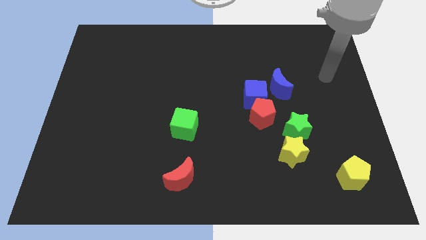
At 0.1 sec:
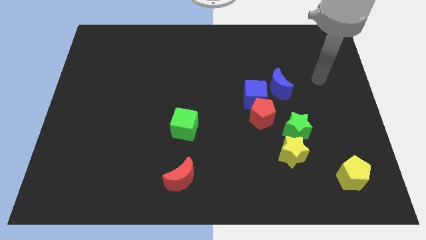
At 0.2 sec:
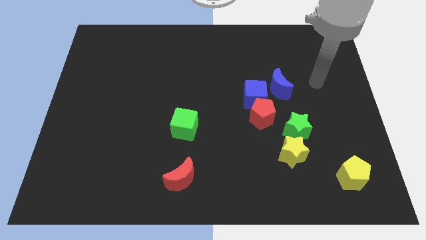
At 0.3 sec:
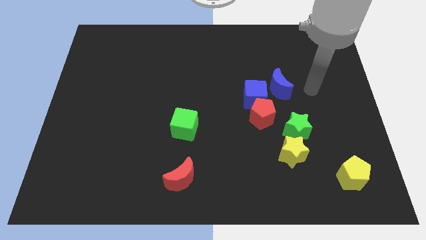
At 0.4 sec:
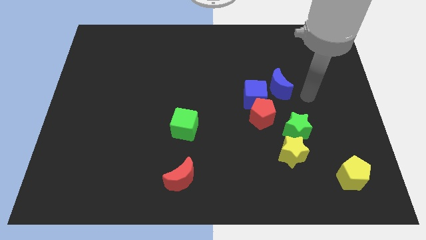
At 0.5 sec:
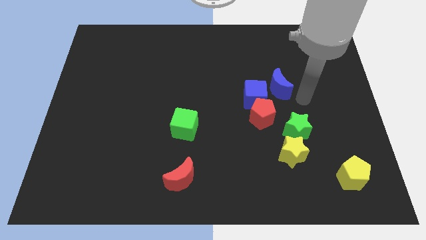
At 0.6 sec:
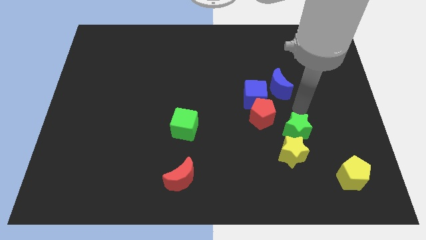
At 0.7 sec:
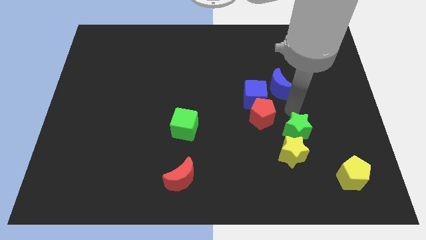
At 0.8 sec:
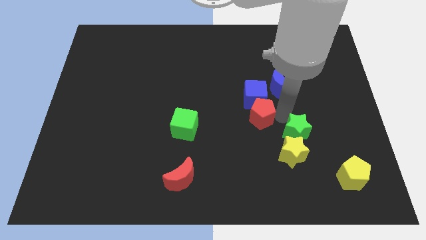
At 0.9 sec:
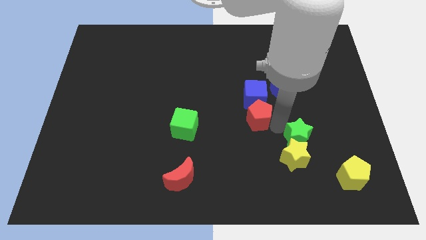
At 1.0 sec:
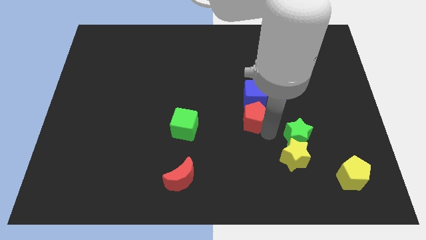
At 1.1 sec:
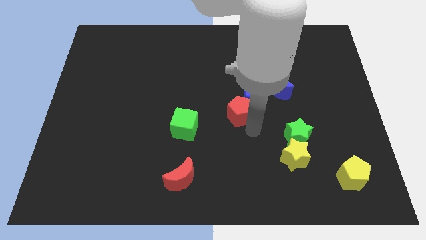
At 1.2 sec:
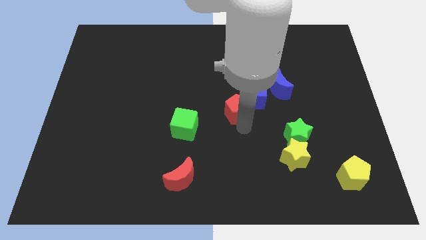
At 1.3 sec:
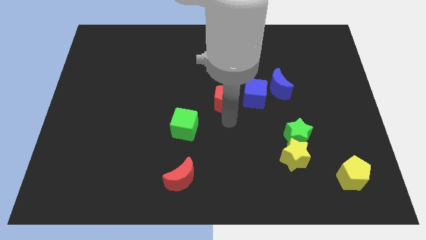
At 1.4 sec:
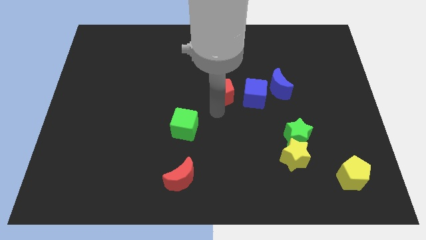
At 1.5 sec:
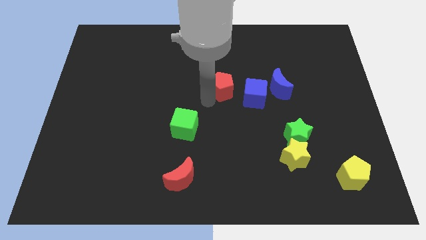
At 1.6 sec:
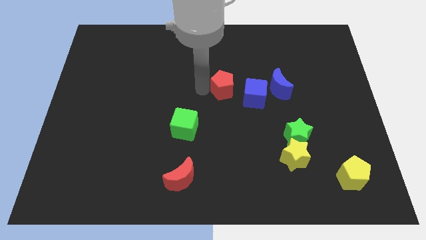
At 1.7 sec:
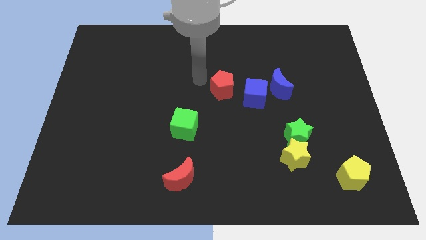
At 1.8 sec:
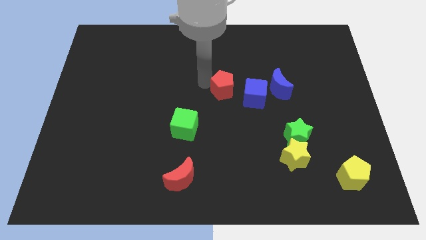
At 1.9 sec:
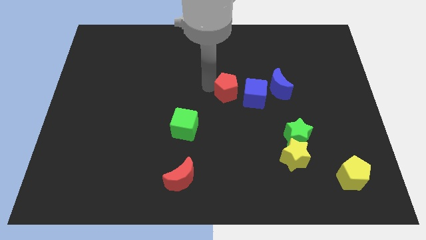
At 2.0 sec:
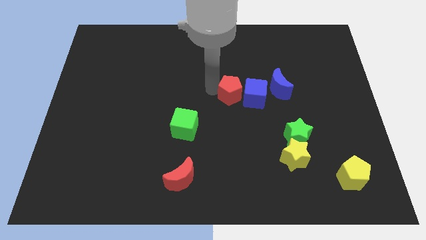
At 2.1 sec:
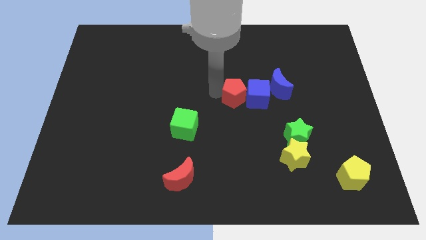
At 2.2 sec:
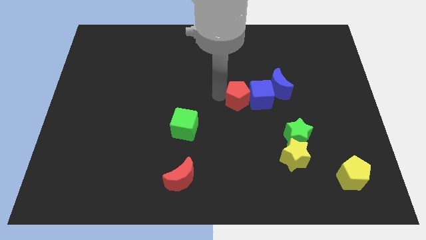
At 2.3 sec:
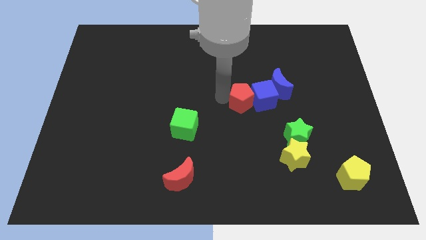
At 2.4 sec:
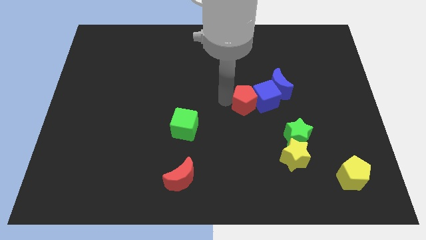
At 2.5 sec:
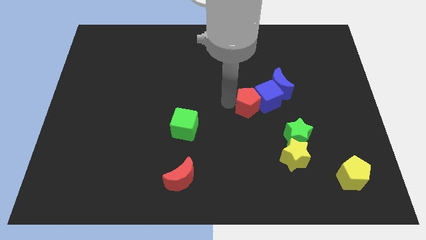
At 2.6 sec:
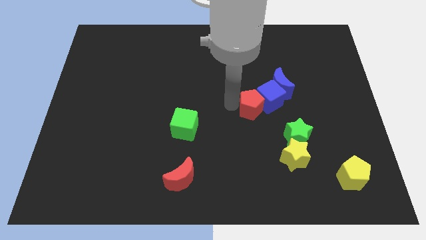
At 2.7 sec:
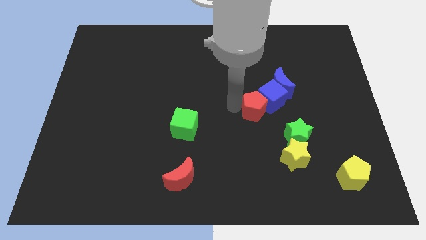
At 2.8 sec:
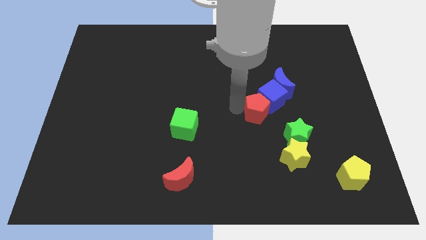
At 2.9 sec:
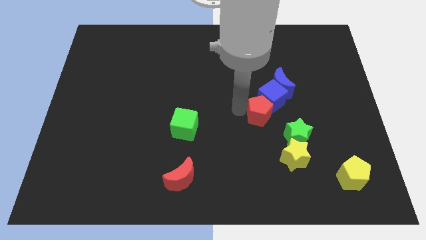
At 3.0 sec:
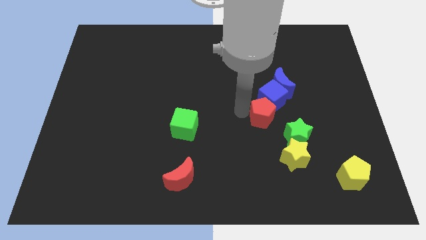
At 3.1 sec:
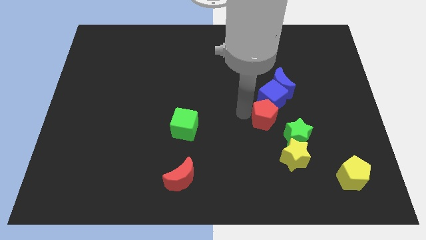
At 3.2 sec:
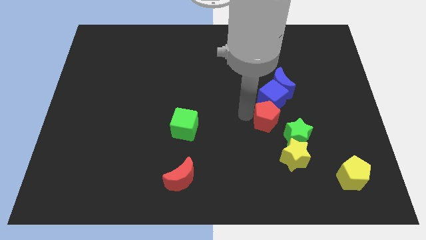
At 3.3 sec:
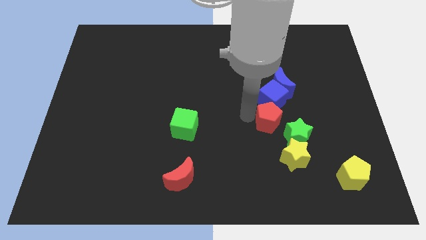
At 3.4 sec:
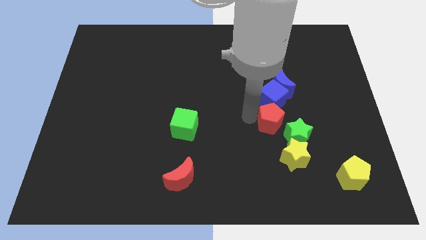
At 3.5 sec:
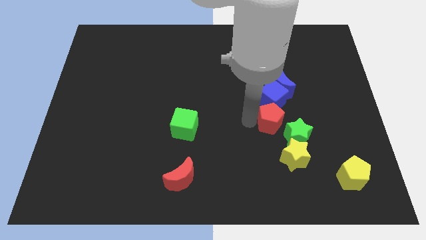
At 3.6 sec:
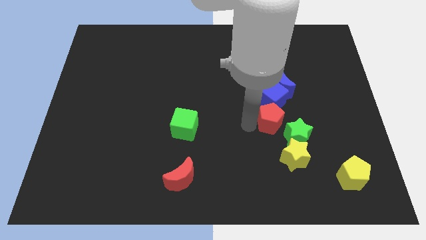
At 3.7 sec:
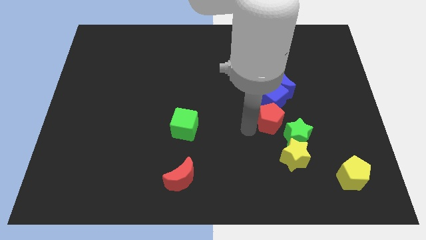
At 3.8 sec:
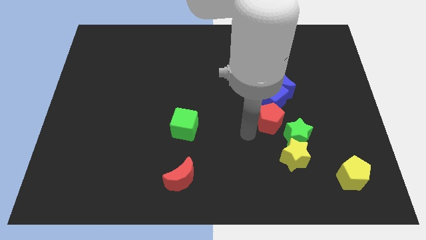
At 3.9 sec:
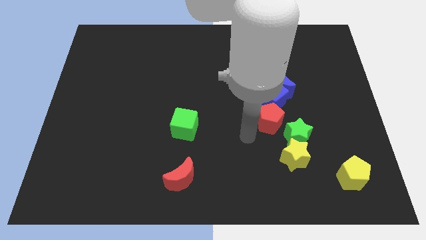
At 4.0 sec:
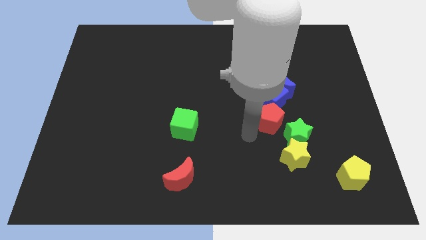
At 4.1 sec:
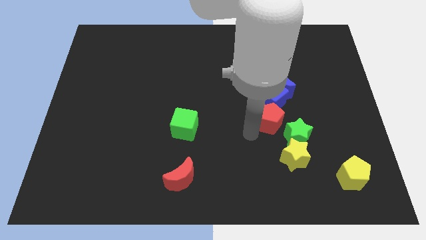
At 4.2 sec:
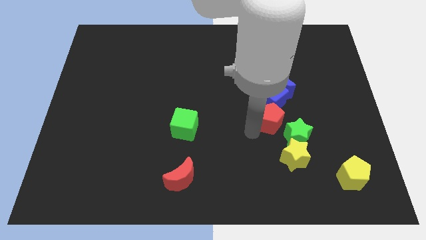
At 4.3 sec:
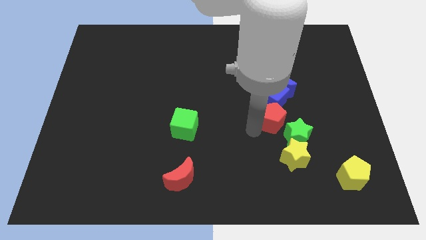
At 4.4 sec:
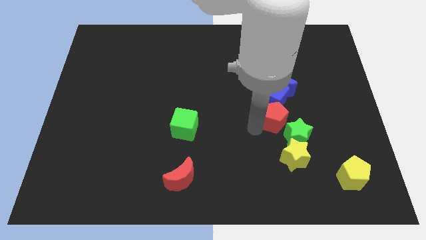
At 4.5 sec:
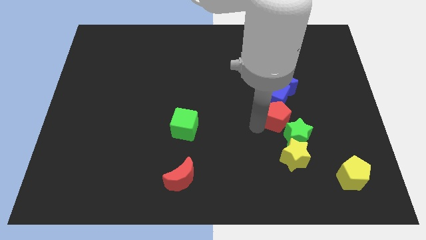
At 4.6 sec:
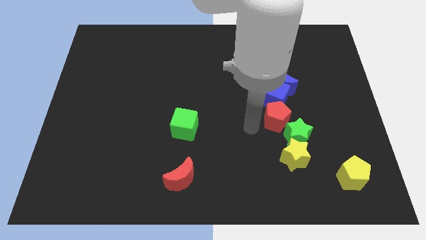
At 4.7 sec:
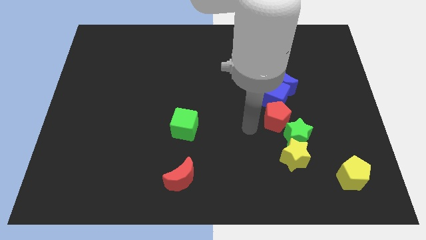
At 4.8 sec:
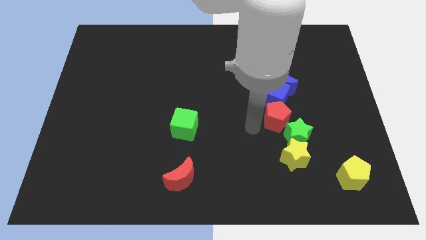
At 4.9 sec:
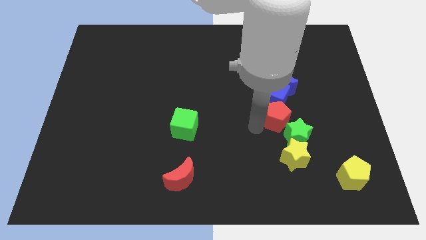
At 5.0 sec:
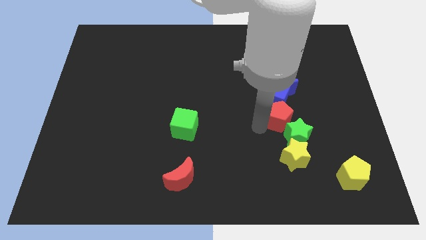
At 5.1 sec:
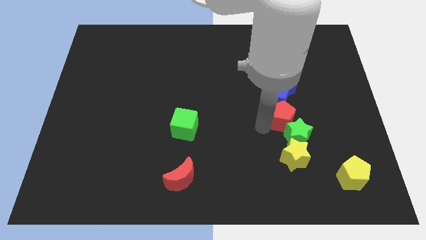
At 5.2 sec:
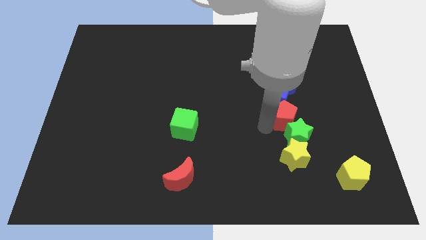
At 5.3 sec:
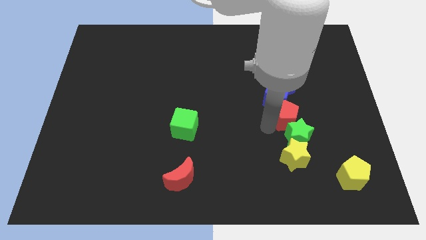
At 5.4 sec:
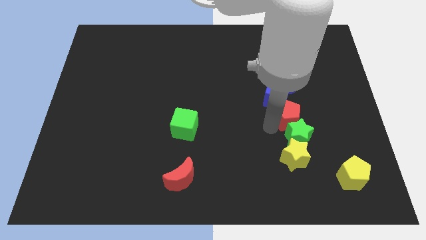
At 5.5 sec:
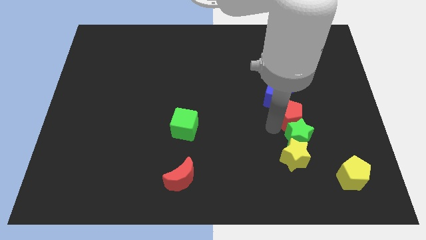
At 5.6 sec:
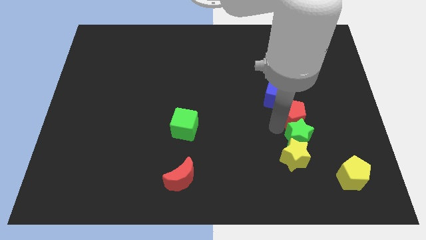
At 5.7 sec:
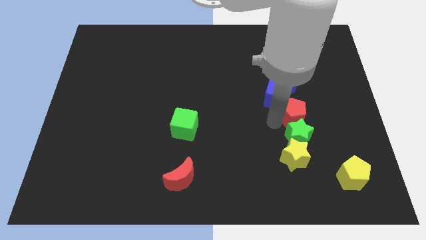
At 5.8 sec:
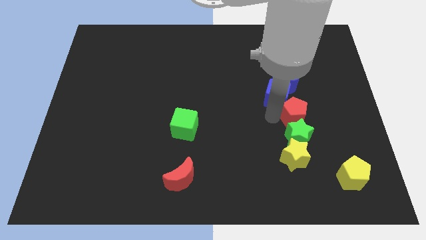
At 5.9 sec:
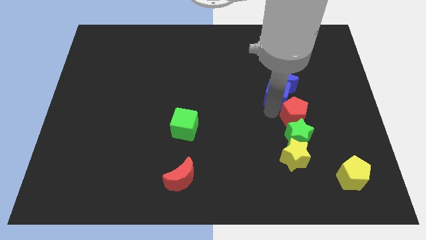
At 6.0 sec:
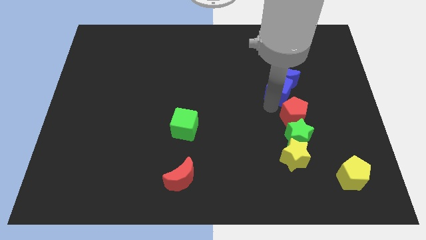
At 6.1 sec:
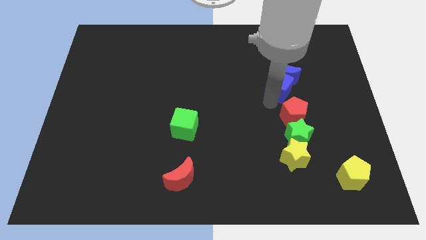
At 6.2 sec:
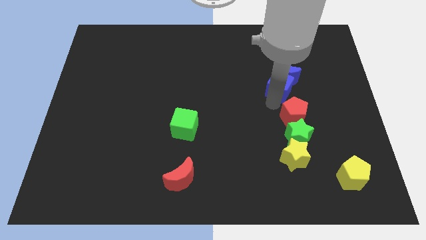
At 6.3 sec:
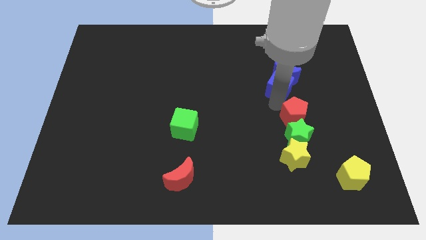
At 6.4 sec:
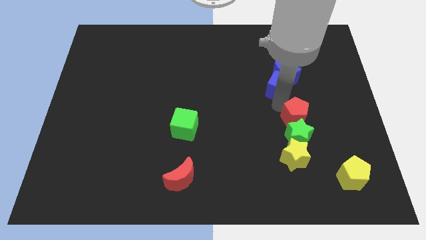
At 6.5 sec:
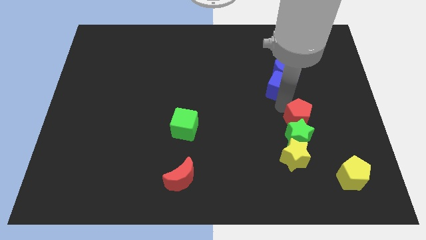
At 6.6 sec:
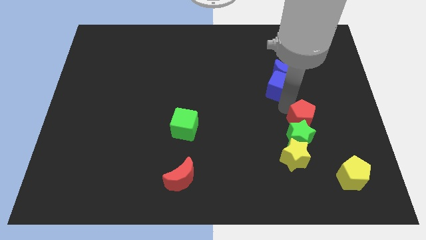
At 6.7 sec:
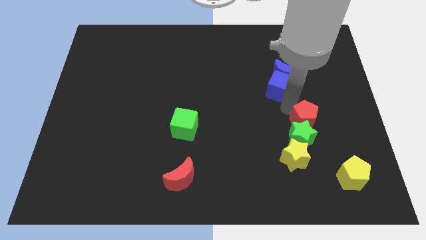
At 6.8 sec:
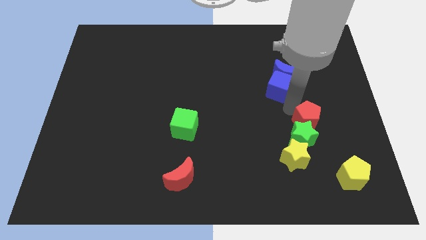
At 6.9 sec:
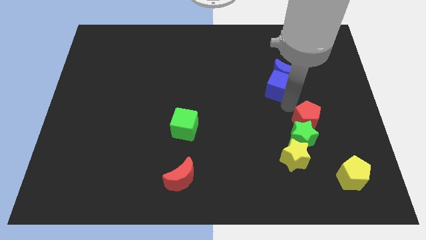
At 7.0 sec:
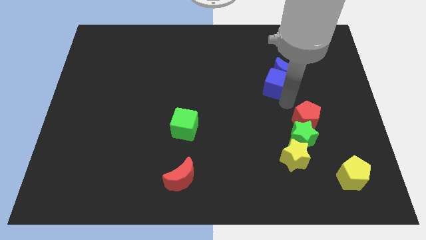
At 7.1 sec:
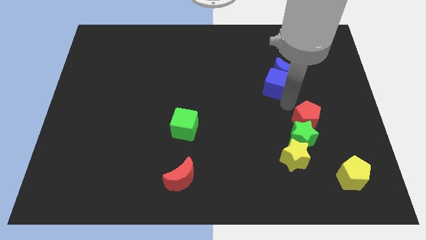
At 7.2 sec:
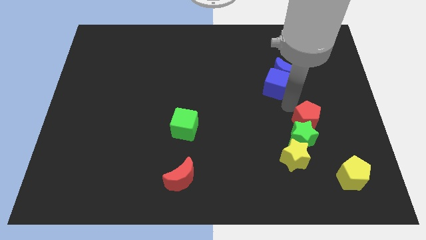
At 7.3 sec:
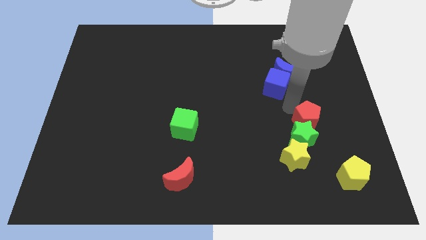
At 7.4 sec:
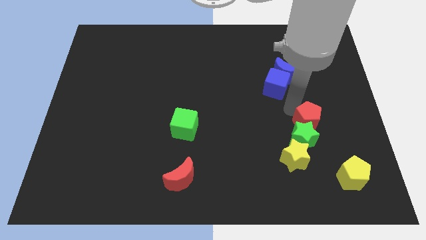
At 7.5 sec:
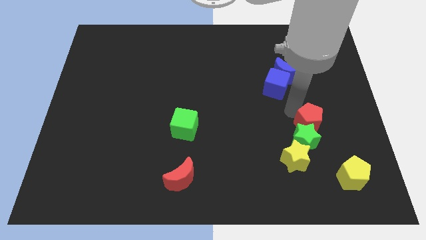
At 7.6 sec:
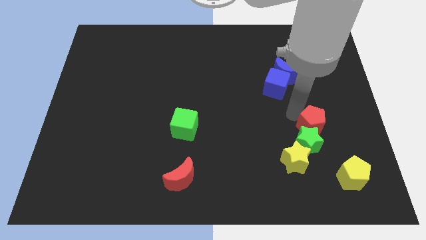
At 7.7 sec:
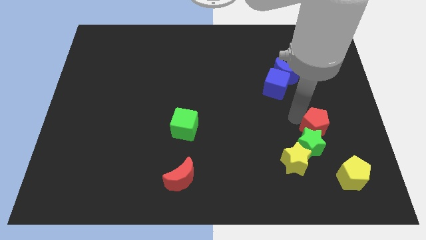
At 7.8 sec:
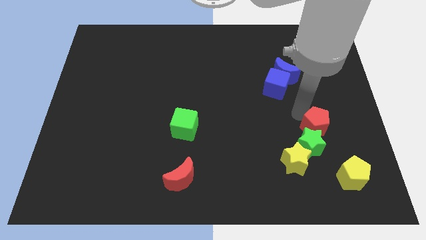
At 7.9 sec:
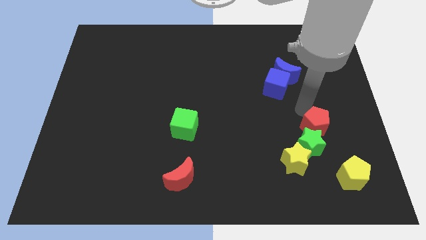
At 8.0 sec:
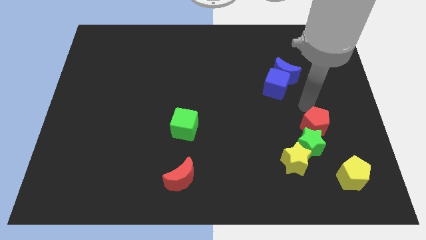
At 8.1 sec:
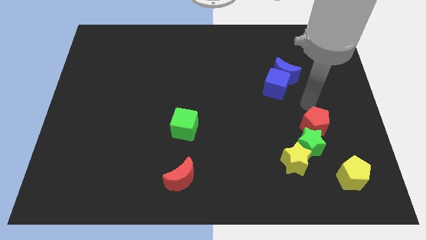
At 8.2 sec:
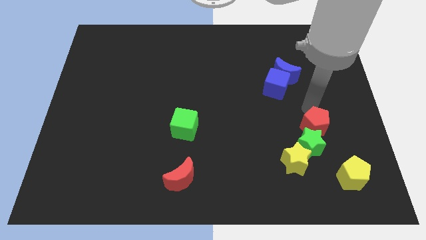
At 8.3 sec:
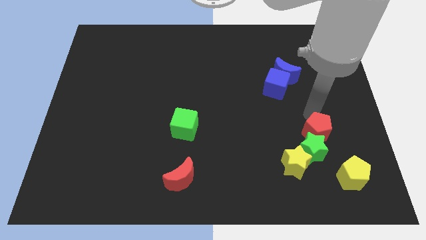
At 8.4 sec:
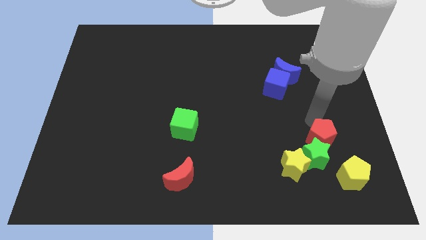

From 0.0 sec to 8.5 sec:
put the red pentagon to the top left side of the yellow pentagon
